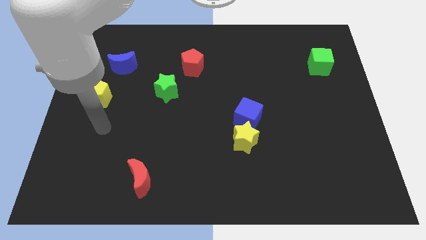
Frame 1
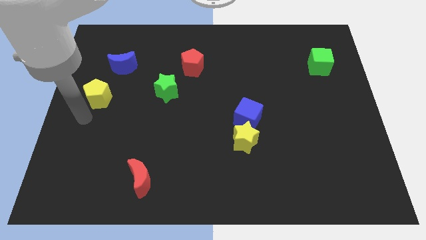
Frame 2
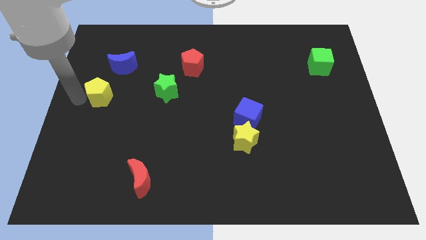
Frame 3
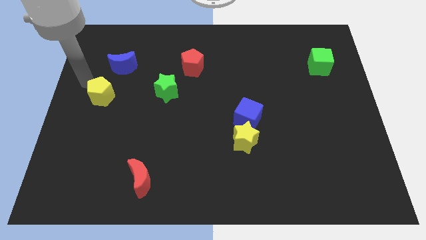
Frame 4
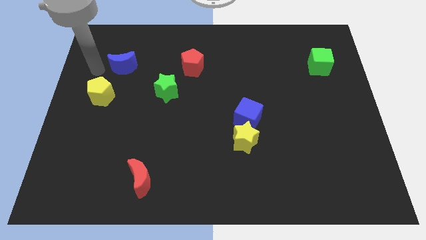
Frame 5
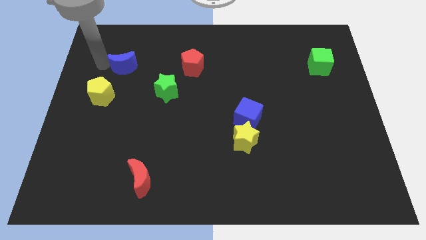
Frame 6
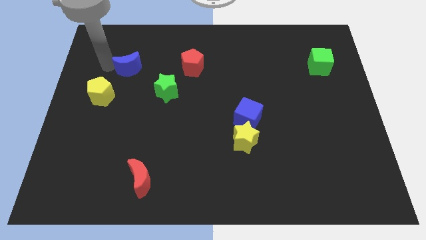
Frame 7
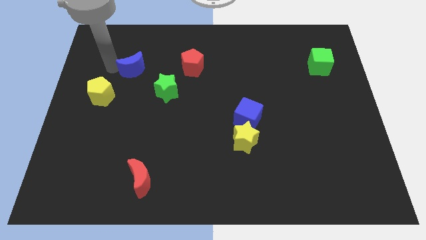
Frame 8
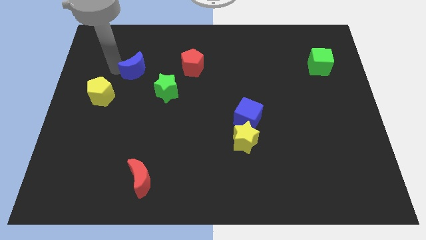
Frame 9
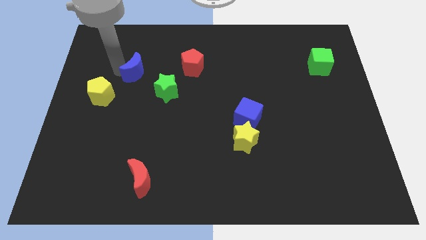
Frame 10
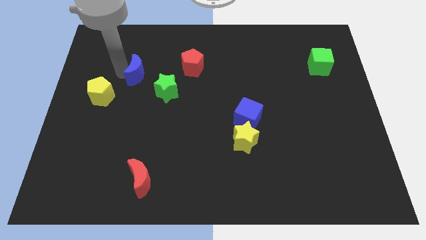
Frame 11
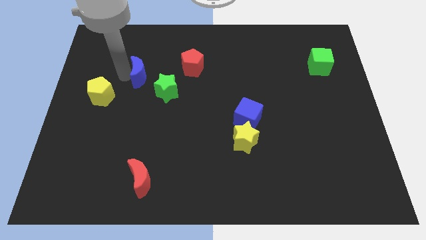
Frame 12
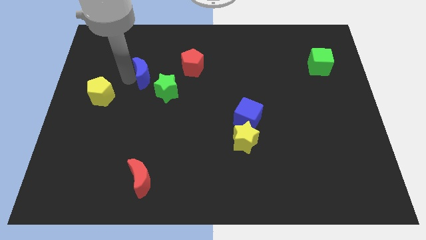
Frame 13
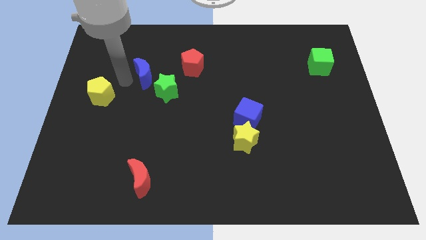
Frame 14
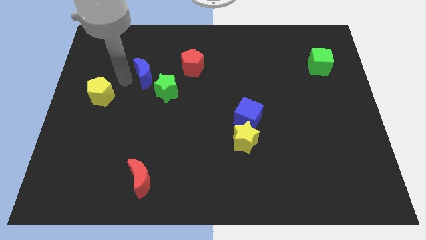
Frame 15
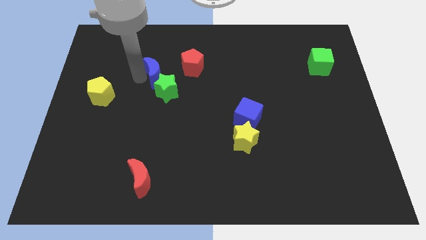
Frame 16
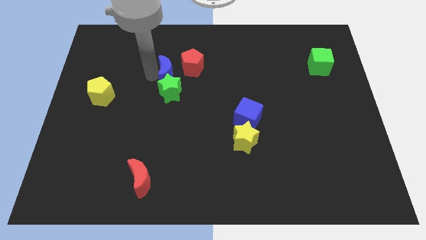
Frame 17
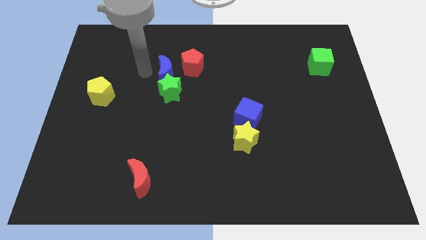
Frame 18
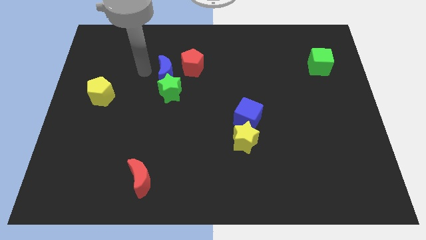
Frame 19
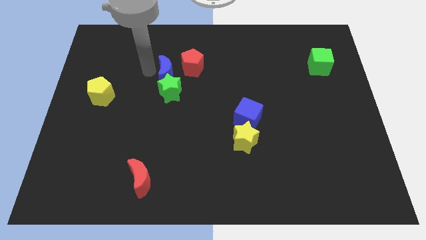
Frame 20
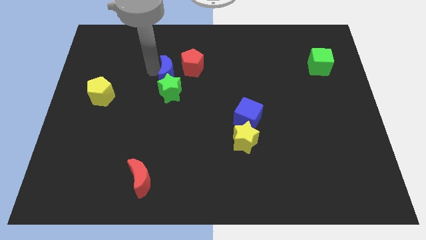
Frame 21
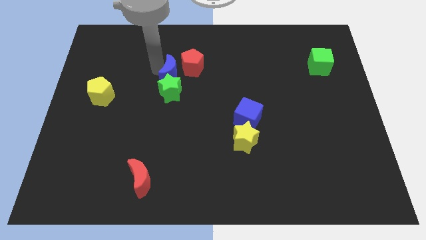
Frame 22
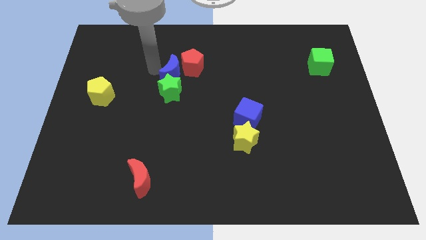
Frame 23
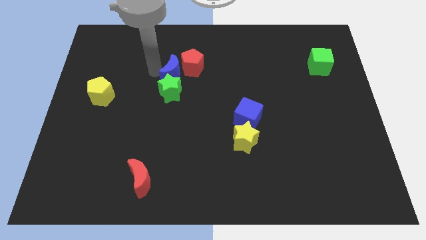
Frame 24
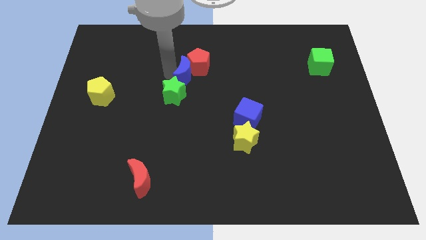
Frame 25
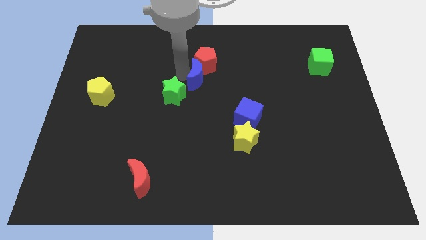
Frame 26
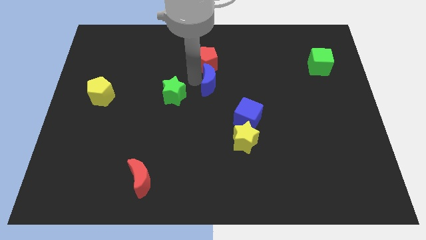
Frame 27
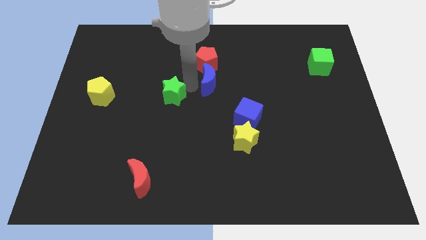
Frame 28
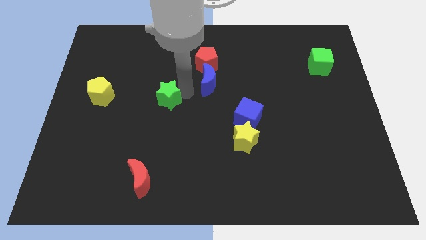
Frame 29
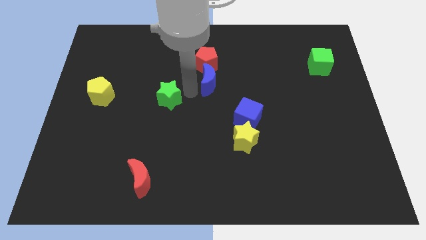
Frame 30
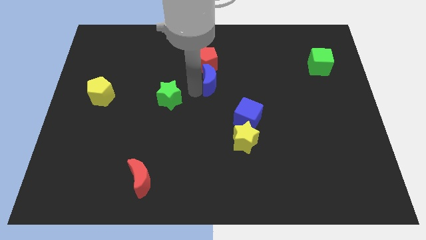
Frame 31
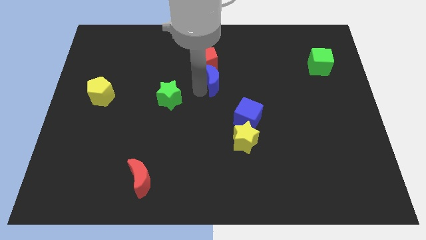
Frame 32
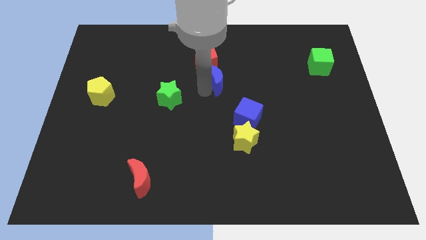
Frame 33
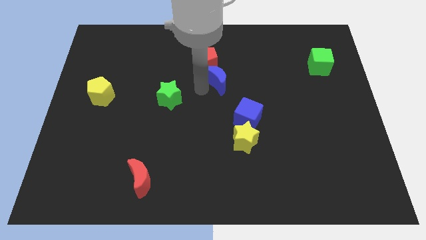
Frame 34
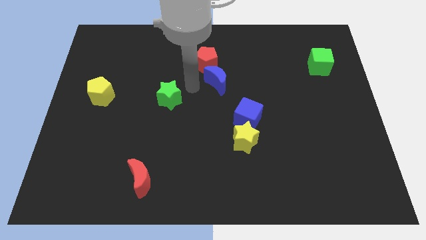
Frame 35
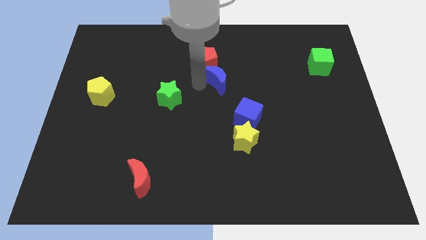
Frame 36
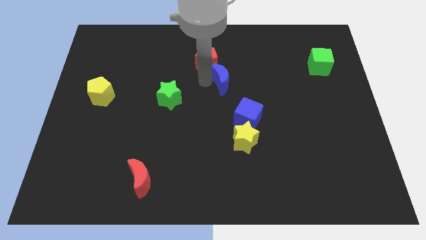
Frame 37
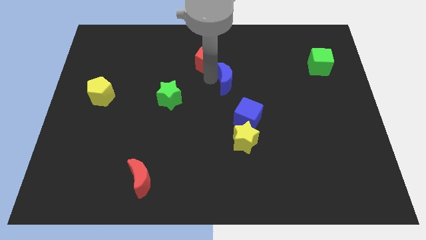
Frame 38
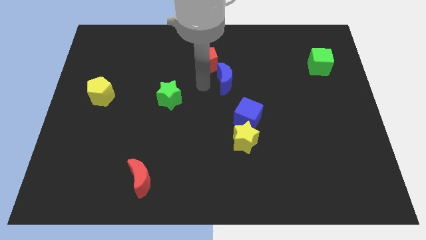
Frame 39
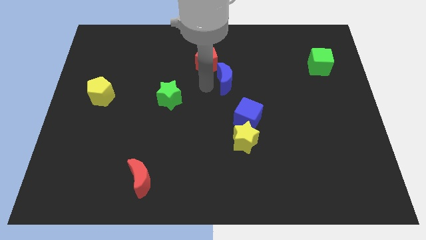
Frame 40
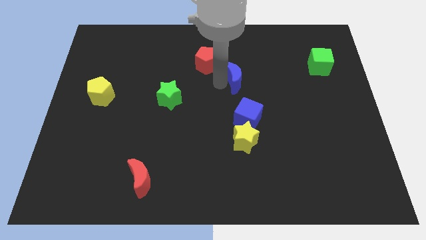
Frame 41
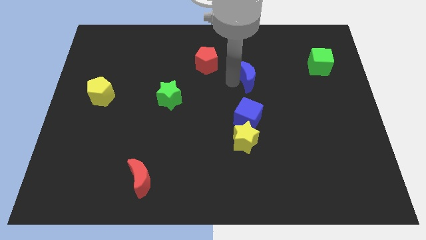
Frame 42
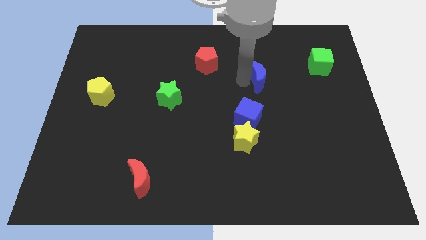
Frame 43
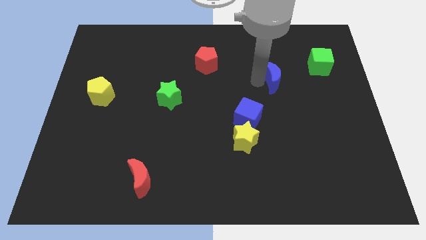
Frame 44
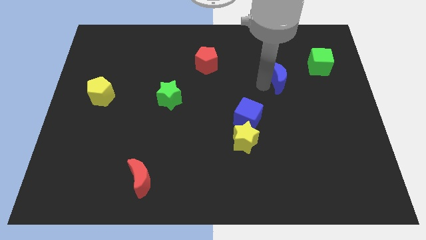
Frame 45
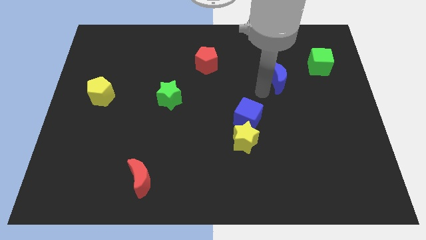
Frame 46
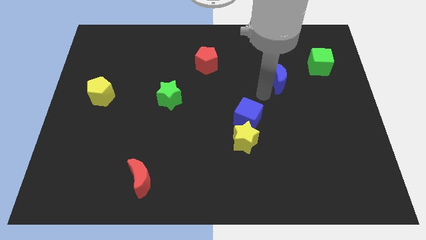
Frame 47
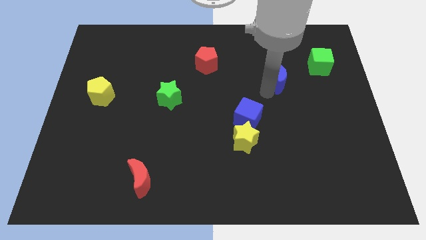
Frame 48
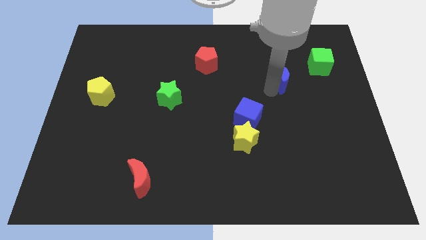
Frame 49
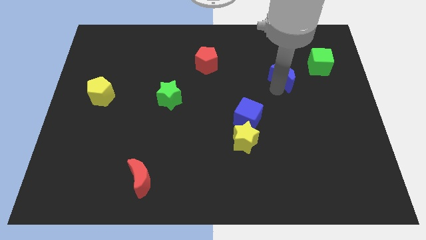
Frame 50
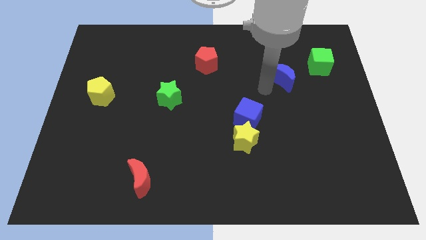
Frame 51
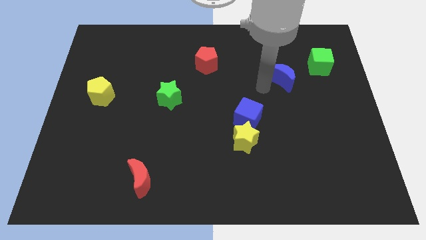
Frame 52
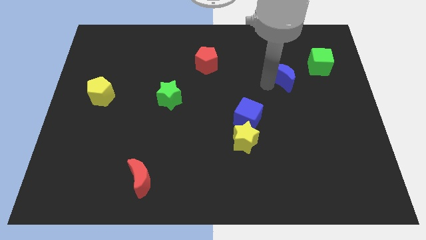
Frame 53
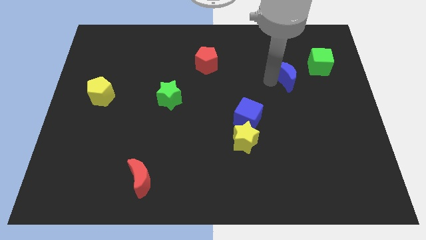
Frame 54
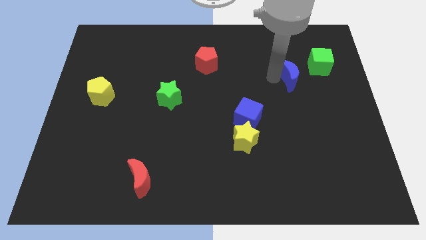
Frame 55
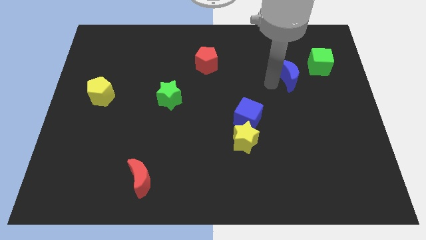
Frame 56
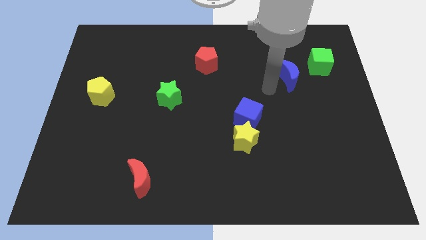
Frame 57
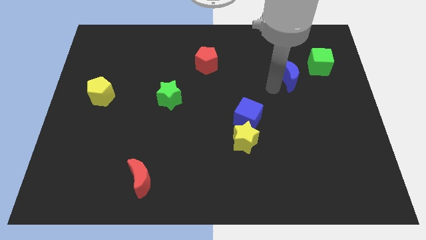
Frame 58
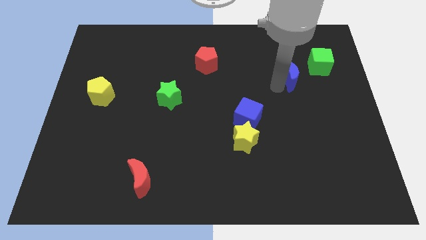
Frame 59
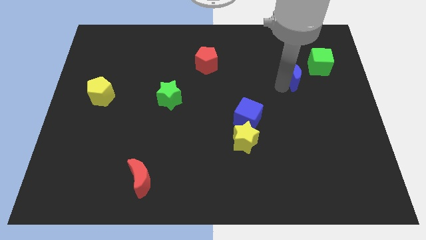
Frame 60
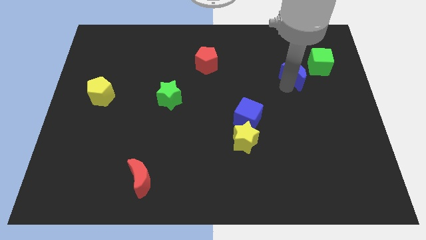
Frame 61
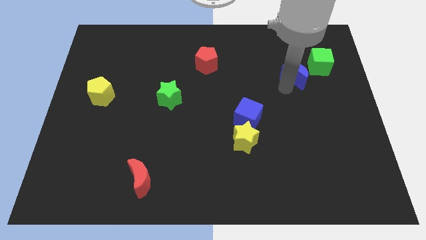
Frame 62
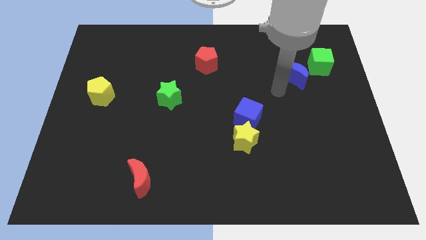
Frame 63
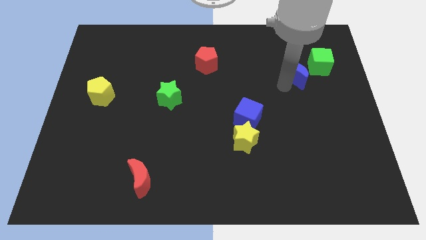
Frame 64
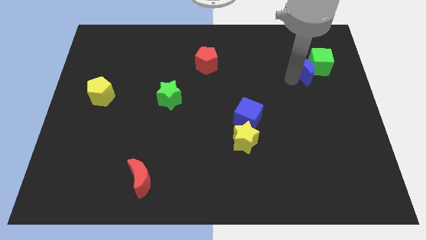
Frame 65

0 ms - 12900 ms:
push the blue moon to the green cube
